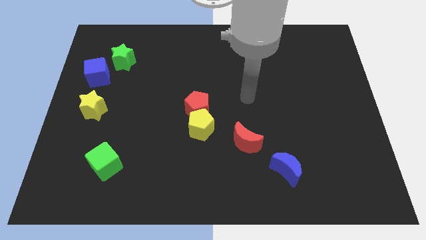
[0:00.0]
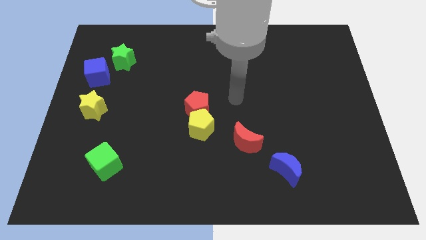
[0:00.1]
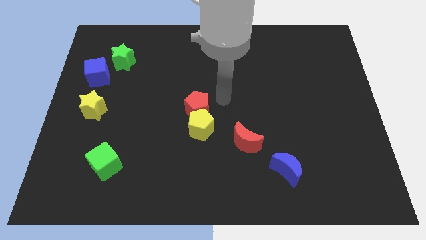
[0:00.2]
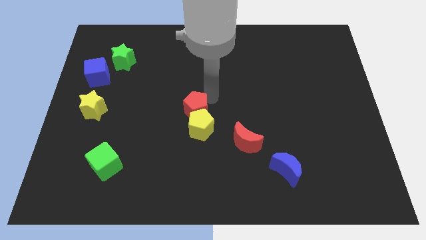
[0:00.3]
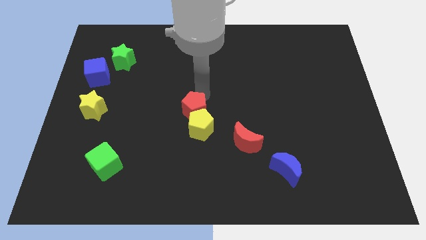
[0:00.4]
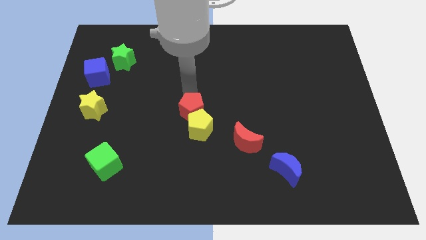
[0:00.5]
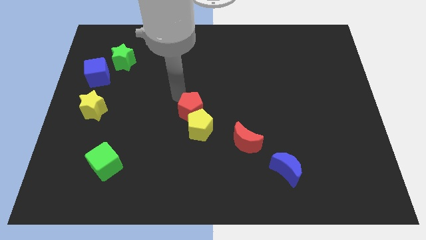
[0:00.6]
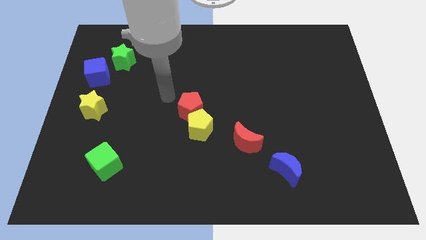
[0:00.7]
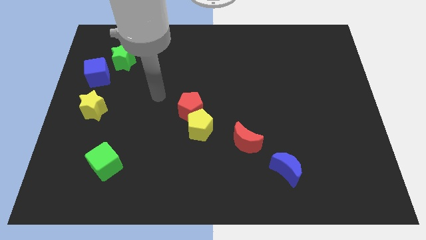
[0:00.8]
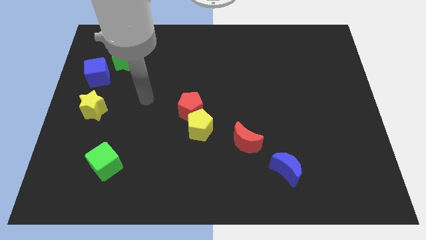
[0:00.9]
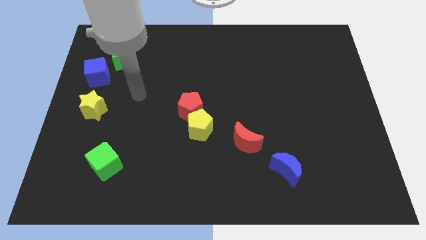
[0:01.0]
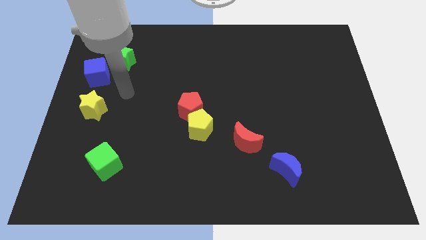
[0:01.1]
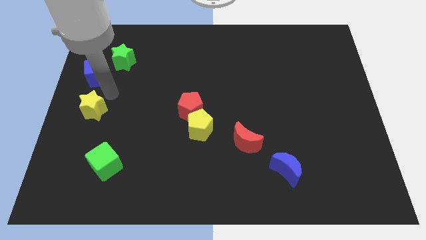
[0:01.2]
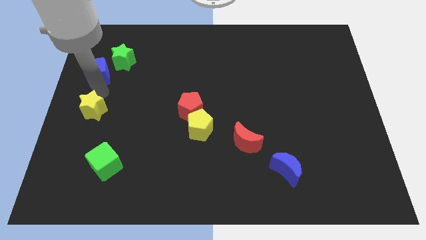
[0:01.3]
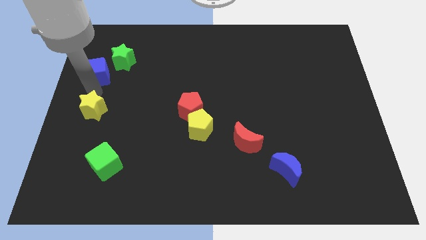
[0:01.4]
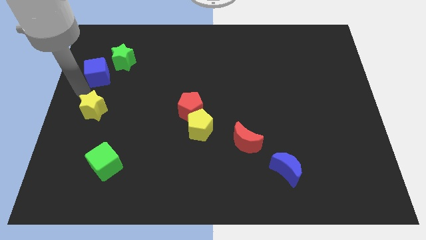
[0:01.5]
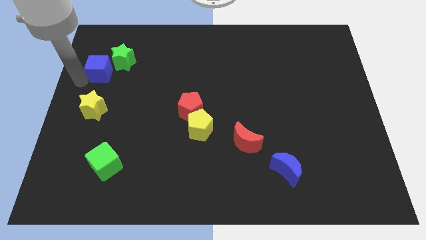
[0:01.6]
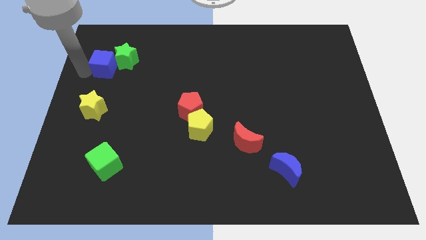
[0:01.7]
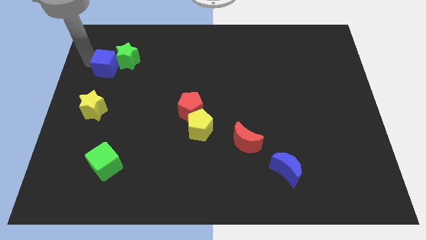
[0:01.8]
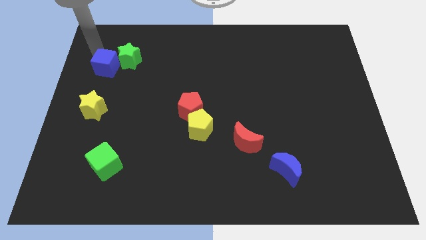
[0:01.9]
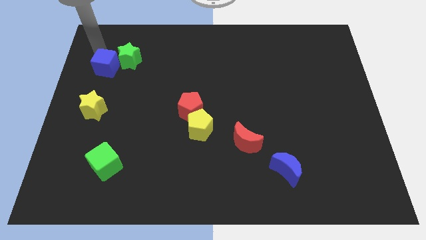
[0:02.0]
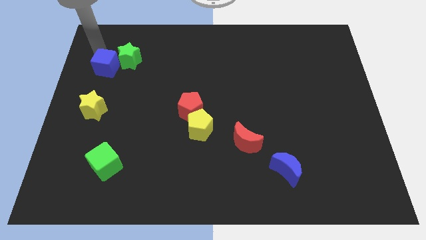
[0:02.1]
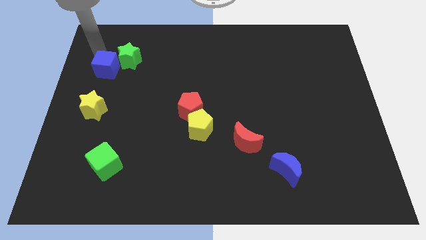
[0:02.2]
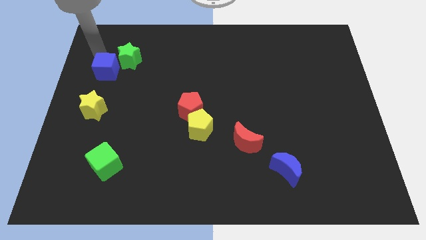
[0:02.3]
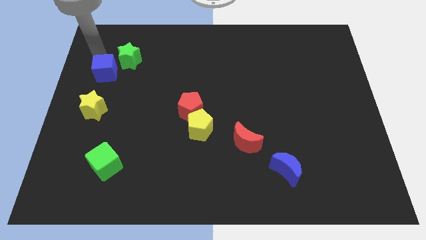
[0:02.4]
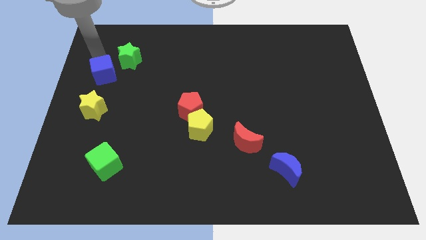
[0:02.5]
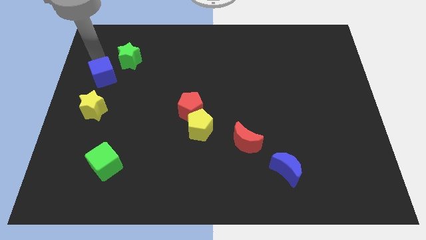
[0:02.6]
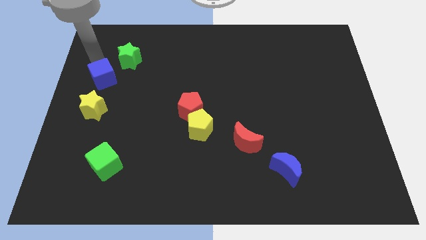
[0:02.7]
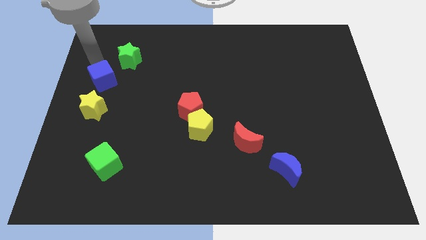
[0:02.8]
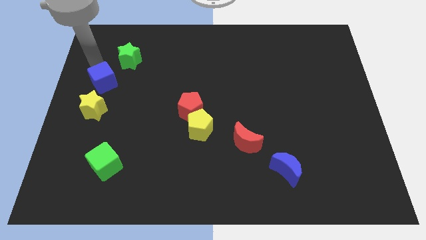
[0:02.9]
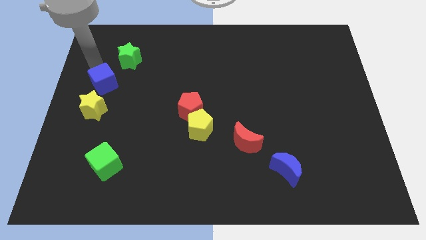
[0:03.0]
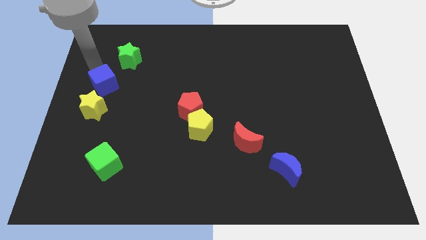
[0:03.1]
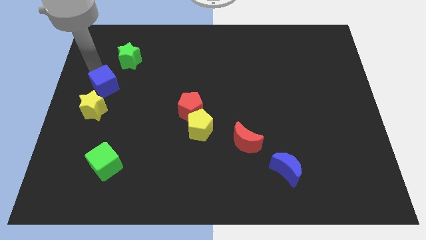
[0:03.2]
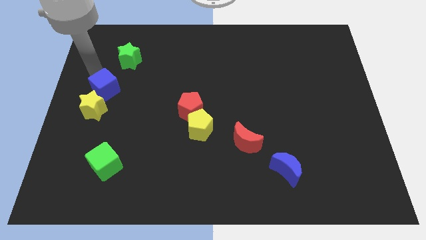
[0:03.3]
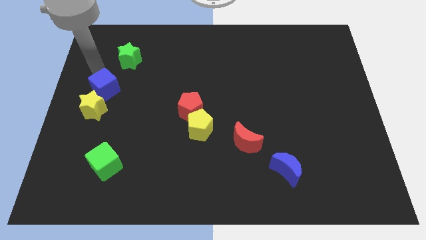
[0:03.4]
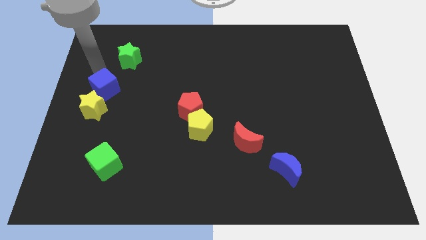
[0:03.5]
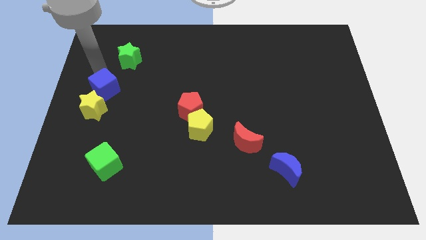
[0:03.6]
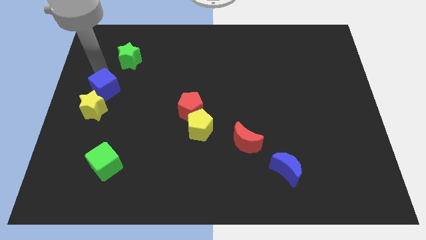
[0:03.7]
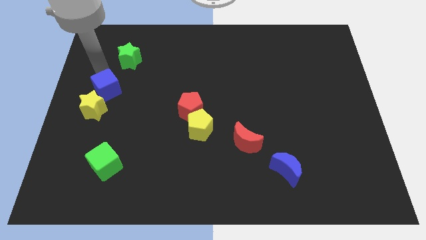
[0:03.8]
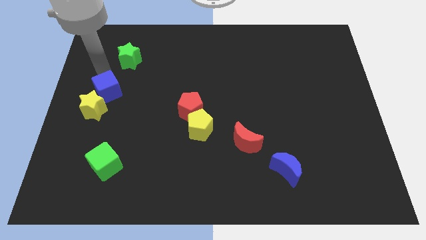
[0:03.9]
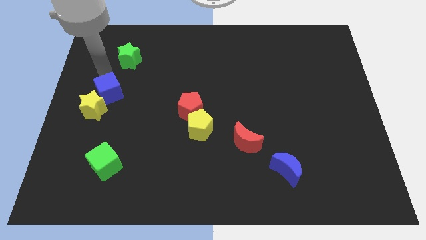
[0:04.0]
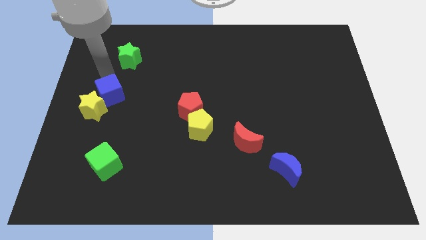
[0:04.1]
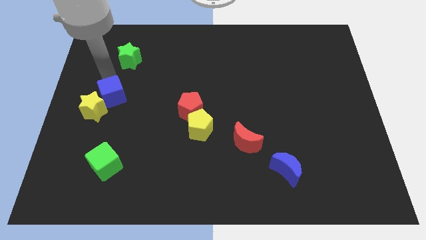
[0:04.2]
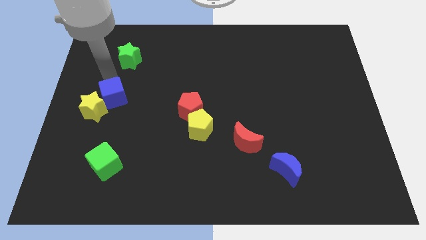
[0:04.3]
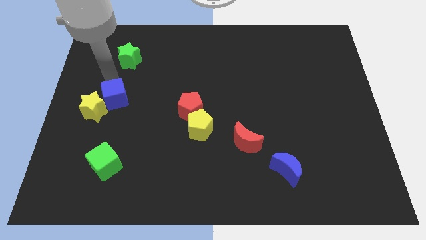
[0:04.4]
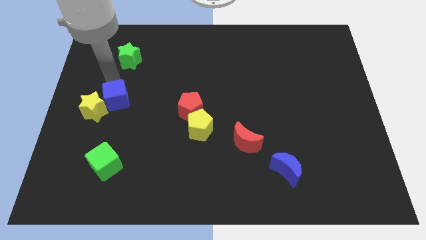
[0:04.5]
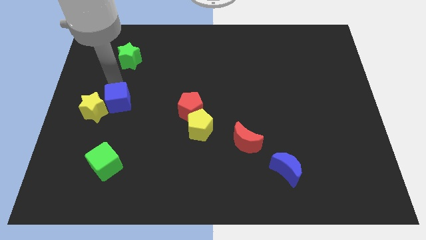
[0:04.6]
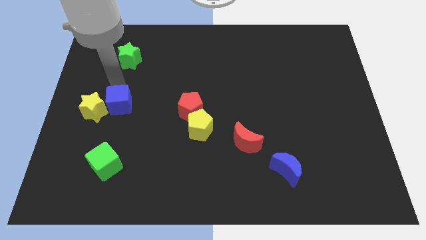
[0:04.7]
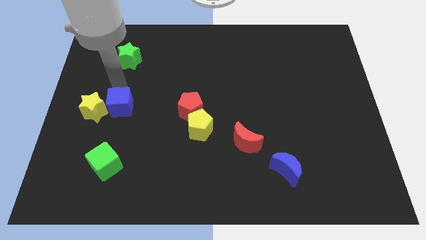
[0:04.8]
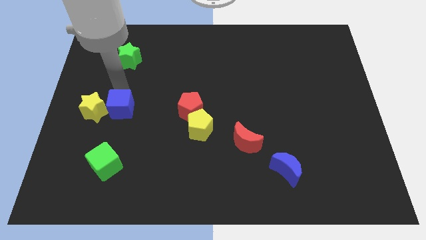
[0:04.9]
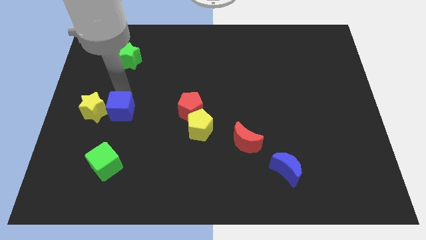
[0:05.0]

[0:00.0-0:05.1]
put the blue cube to the bottom right of the yellow star

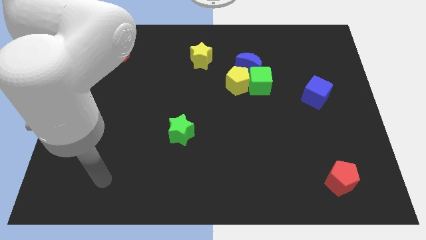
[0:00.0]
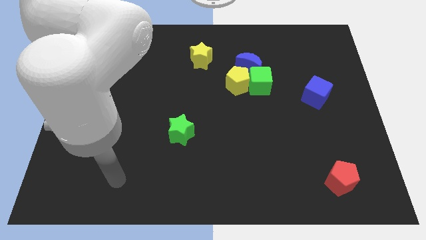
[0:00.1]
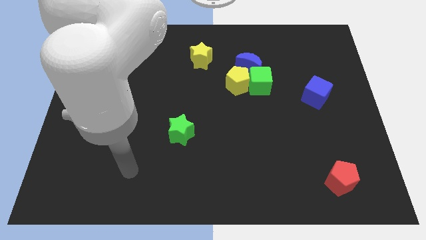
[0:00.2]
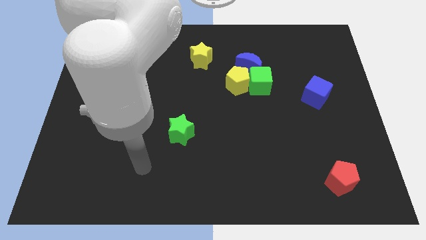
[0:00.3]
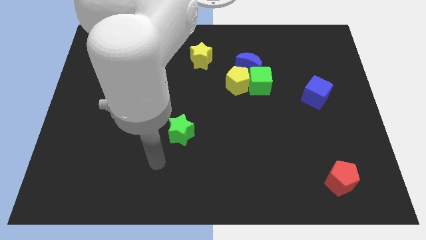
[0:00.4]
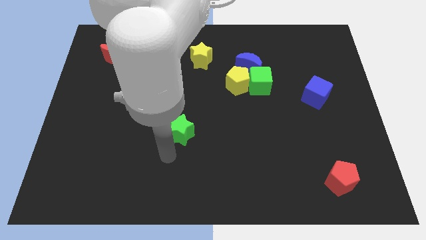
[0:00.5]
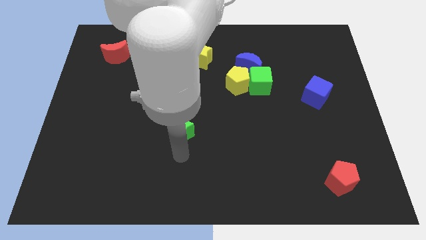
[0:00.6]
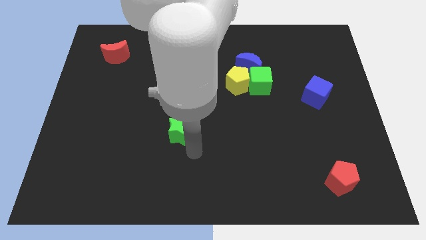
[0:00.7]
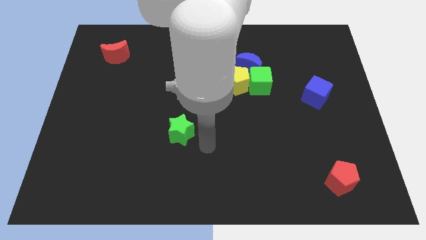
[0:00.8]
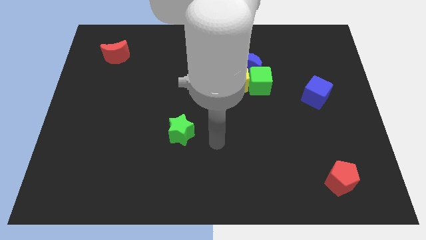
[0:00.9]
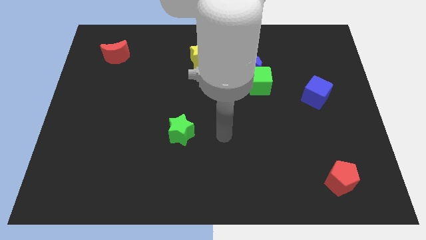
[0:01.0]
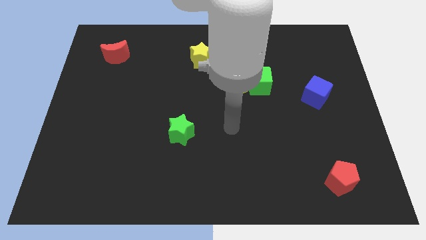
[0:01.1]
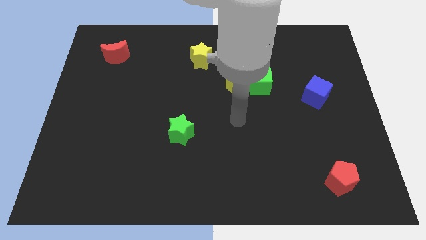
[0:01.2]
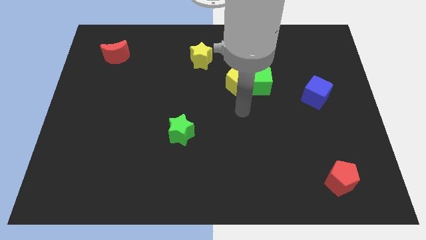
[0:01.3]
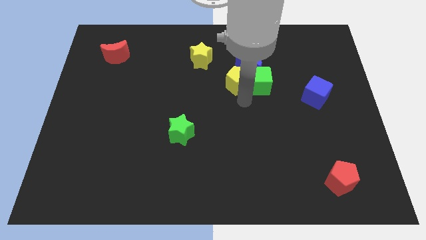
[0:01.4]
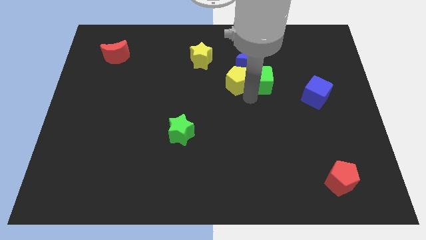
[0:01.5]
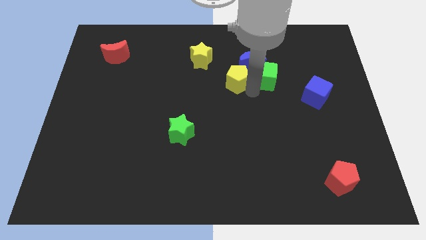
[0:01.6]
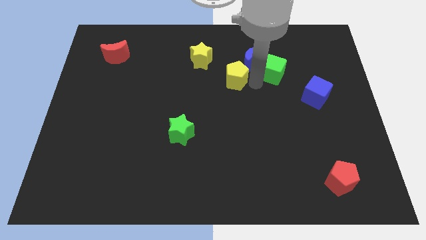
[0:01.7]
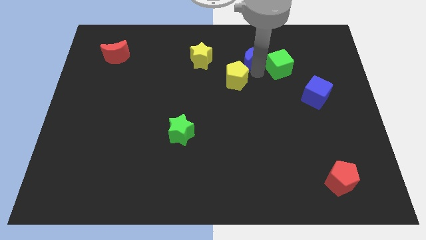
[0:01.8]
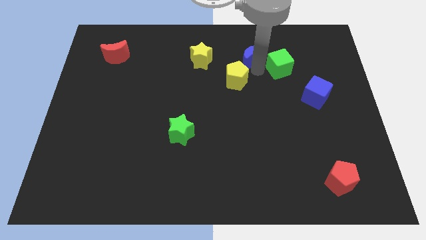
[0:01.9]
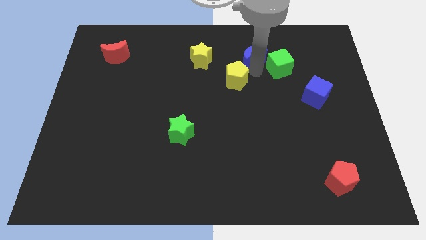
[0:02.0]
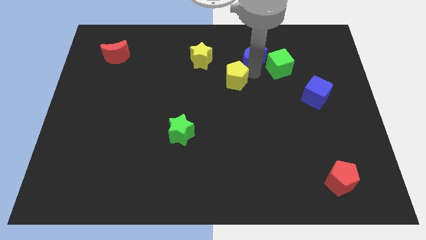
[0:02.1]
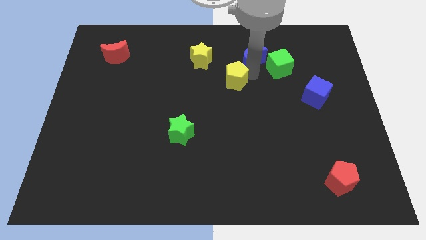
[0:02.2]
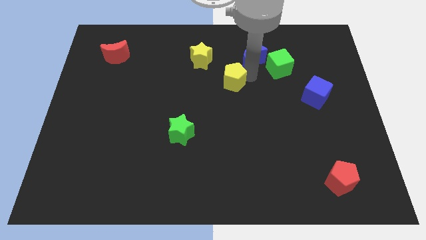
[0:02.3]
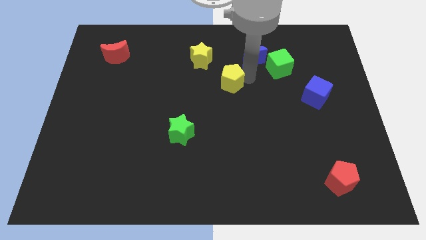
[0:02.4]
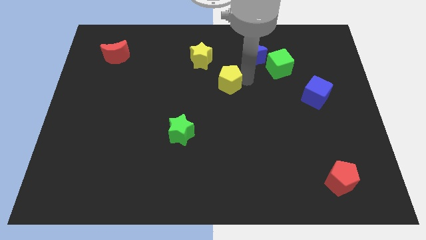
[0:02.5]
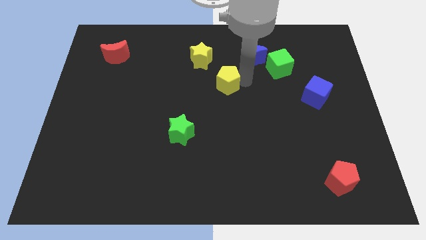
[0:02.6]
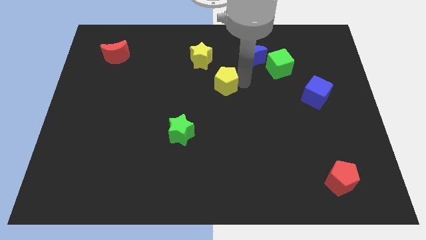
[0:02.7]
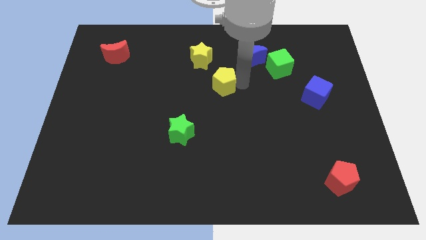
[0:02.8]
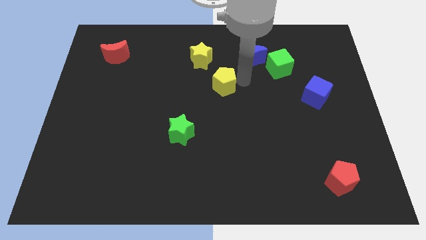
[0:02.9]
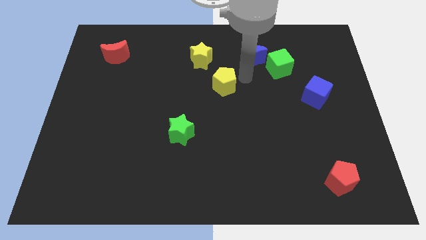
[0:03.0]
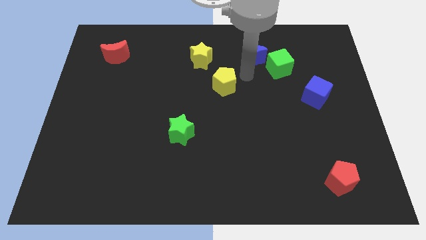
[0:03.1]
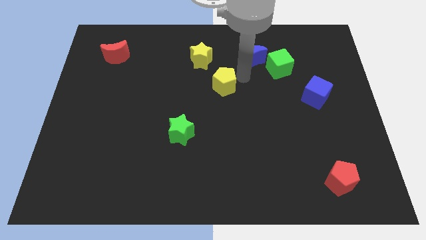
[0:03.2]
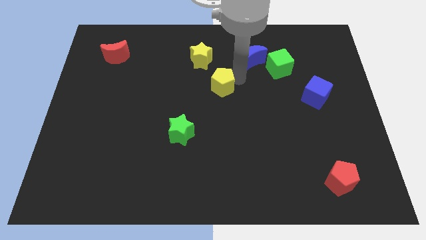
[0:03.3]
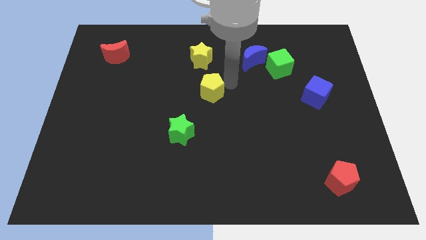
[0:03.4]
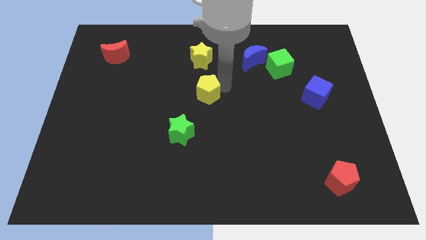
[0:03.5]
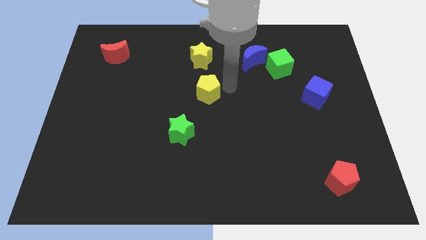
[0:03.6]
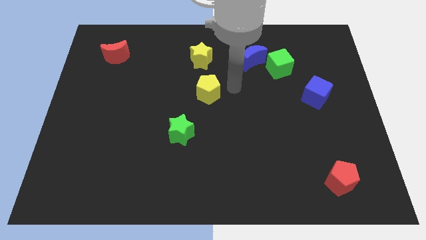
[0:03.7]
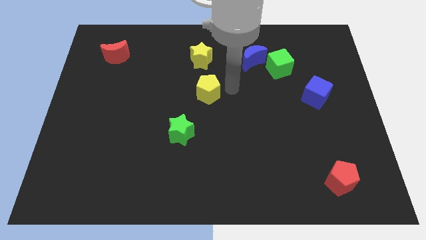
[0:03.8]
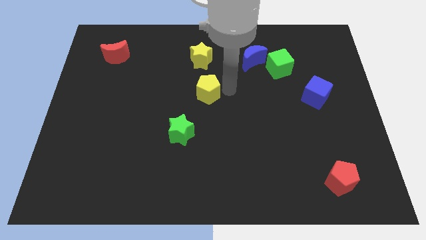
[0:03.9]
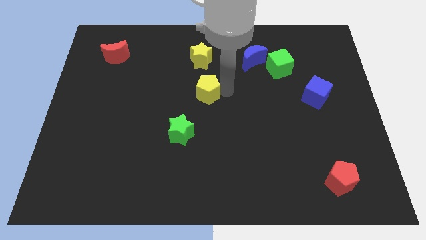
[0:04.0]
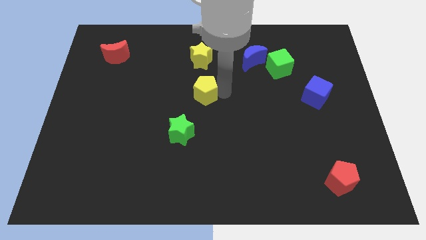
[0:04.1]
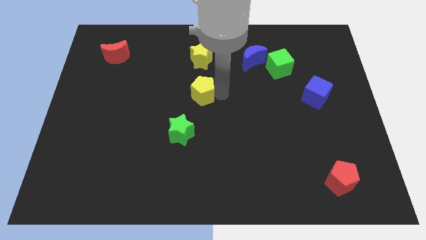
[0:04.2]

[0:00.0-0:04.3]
push the yellow pentagon above the green star
